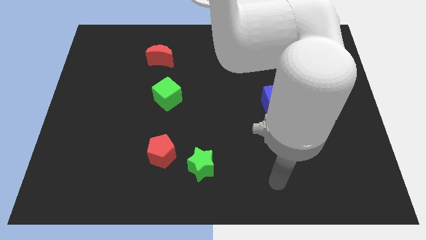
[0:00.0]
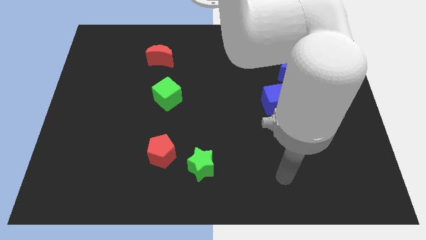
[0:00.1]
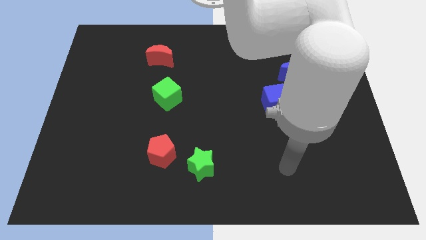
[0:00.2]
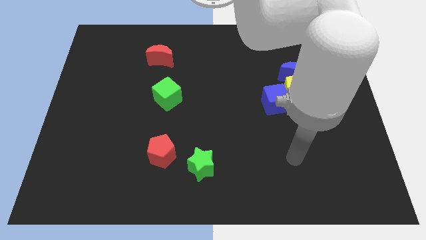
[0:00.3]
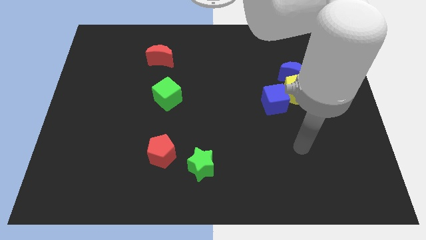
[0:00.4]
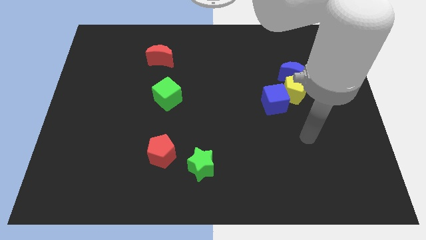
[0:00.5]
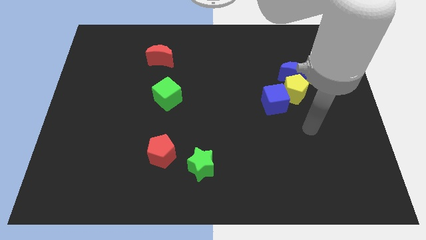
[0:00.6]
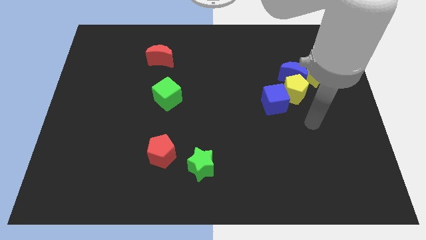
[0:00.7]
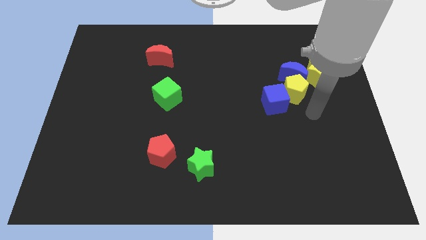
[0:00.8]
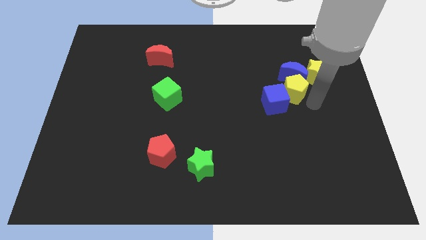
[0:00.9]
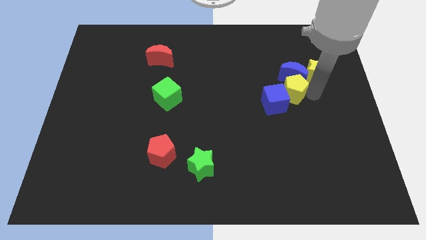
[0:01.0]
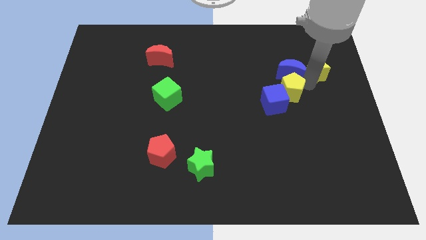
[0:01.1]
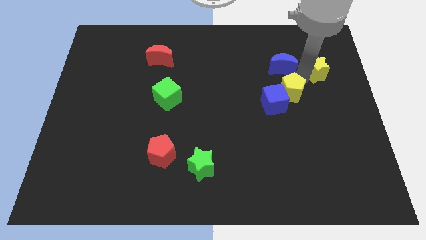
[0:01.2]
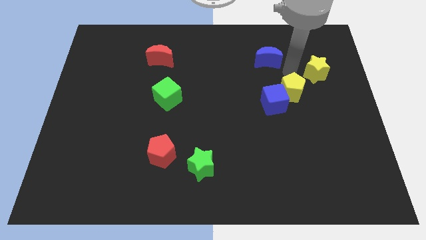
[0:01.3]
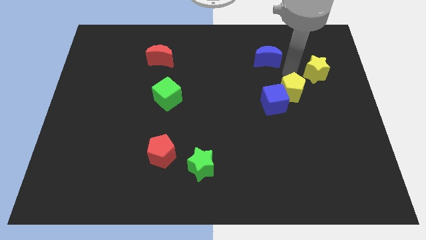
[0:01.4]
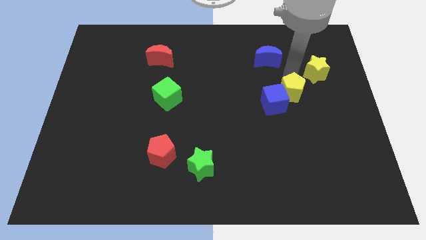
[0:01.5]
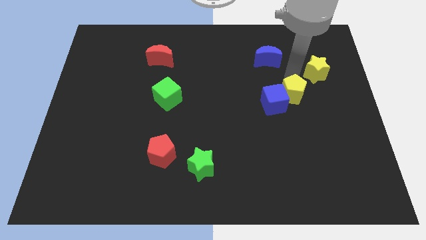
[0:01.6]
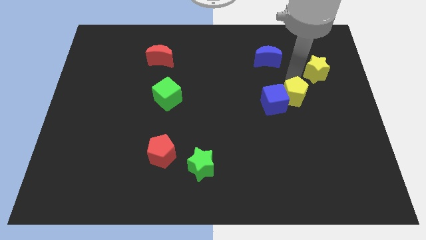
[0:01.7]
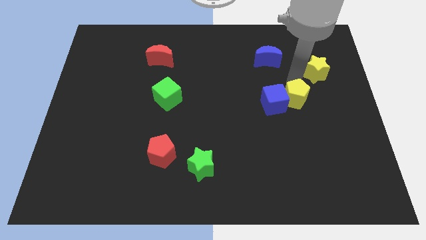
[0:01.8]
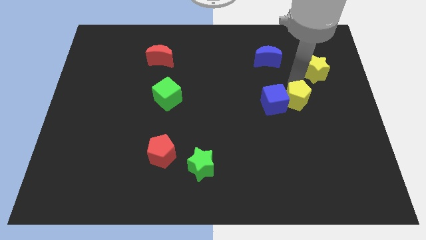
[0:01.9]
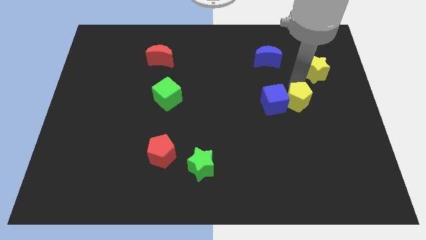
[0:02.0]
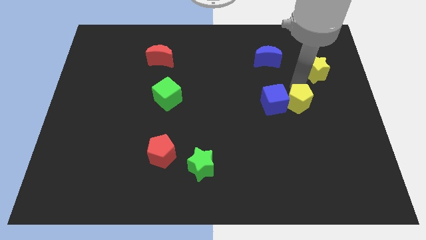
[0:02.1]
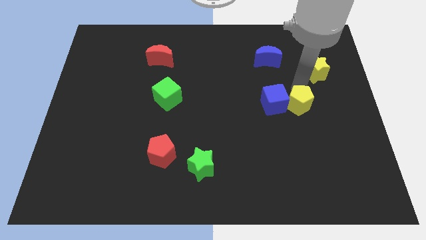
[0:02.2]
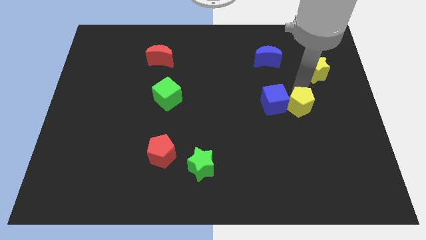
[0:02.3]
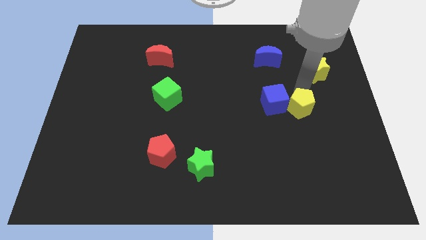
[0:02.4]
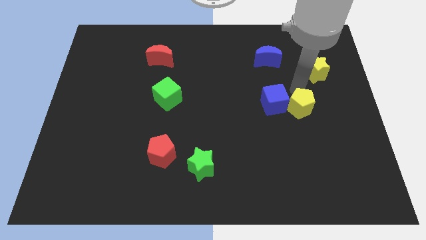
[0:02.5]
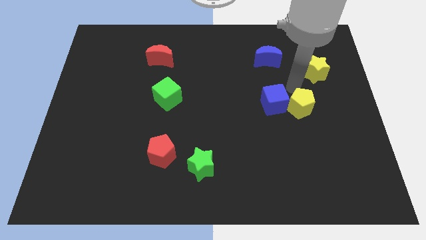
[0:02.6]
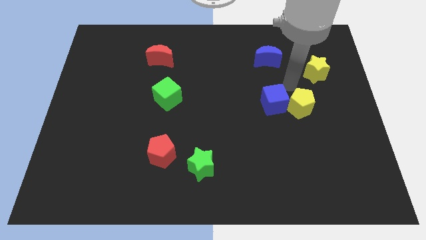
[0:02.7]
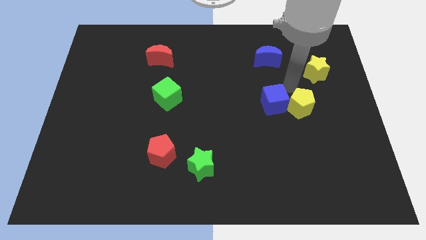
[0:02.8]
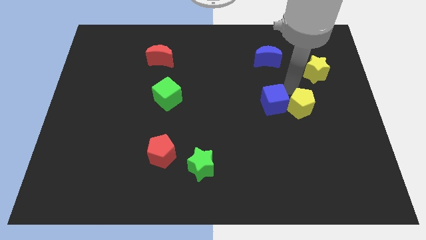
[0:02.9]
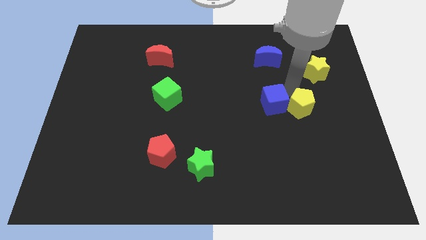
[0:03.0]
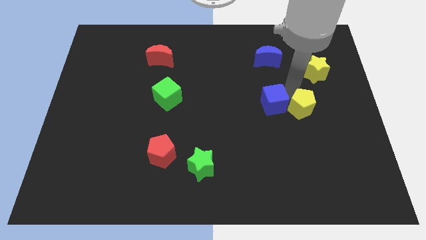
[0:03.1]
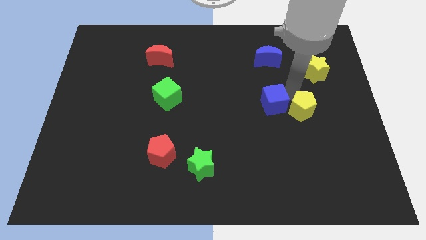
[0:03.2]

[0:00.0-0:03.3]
move the yellow pentagon away from the group

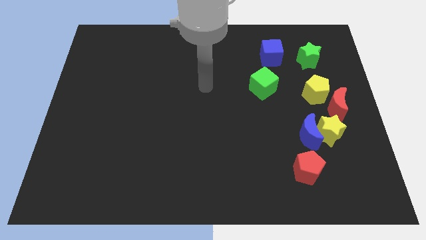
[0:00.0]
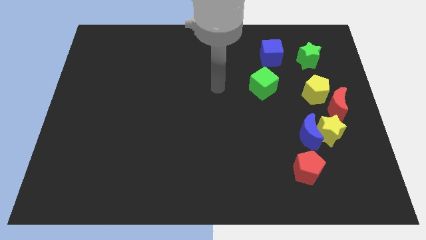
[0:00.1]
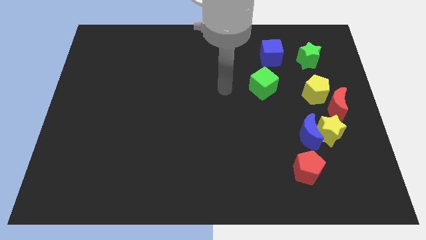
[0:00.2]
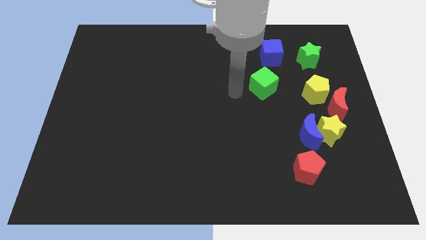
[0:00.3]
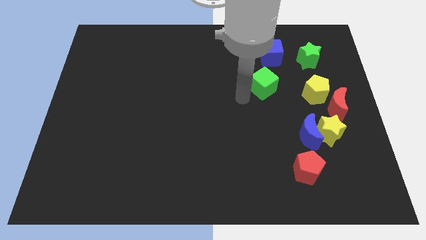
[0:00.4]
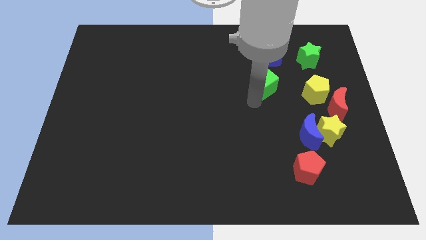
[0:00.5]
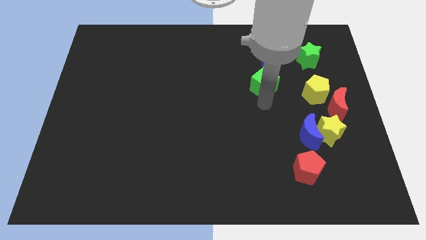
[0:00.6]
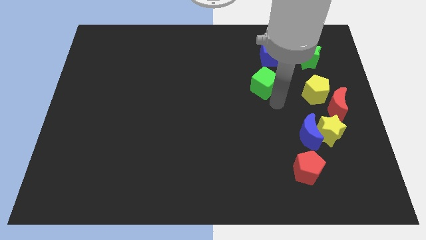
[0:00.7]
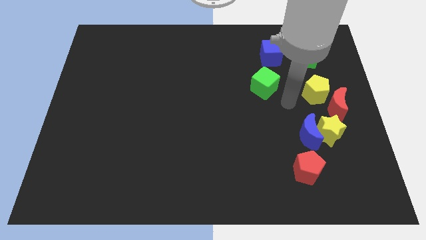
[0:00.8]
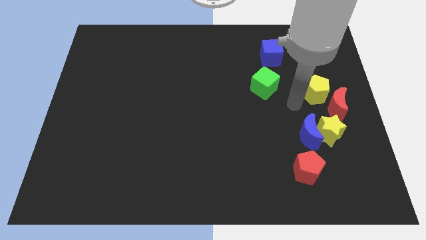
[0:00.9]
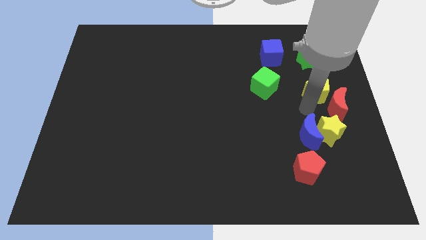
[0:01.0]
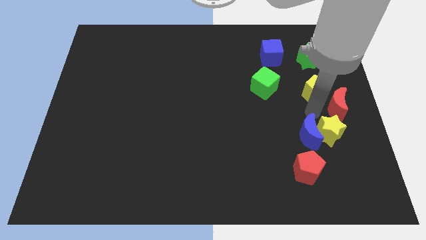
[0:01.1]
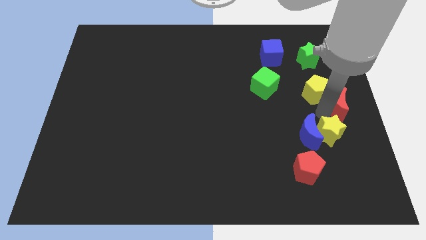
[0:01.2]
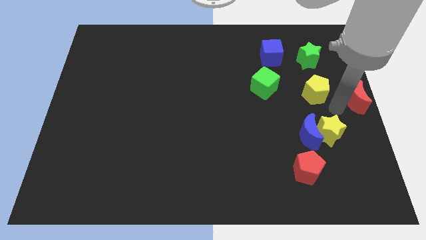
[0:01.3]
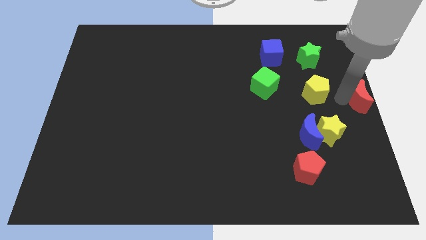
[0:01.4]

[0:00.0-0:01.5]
pull the yellow pentagon apart from the red moon

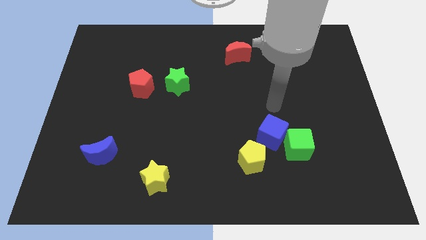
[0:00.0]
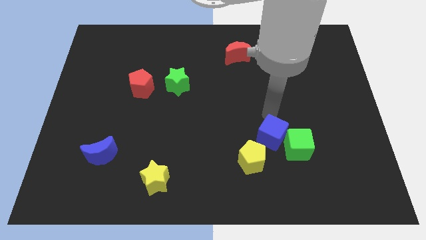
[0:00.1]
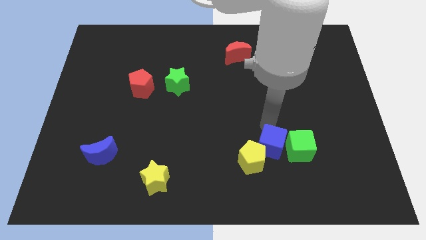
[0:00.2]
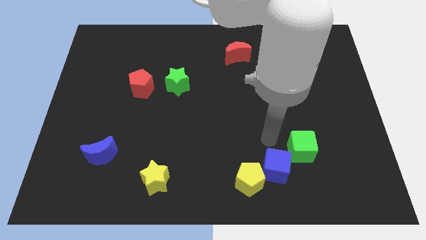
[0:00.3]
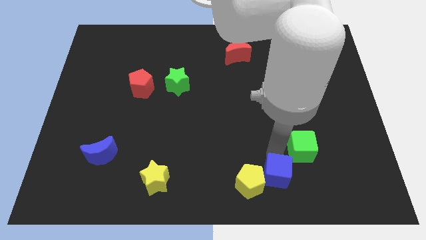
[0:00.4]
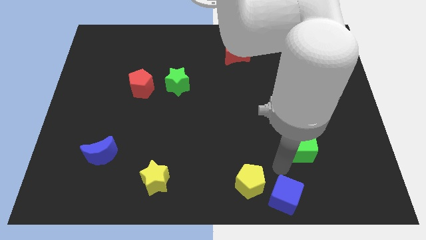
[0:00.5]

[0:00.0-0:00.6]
separate the green cube from the blue cube

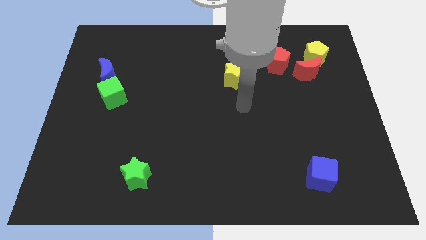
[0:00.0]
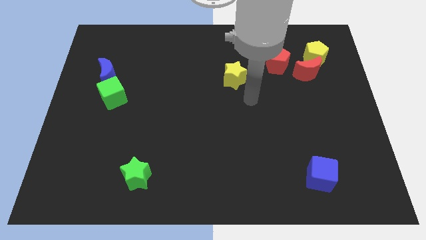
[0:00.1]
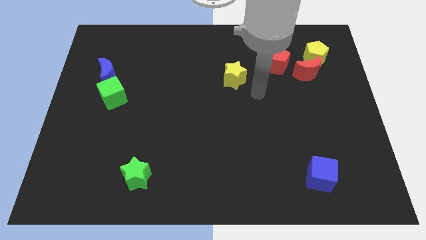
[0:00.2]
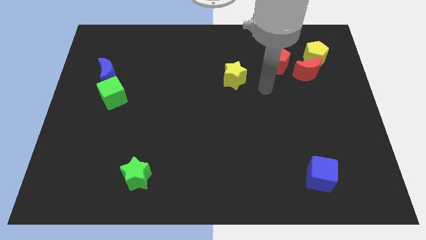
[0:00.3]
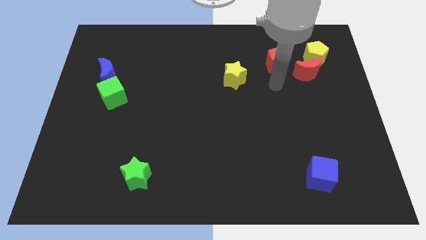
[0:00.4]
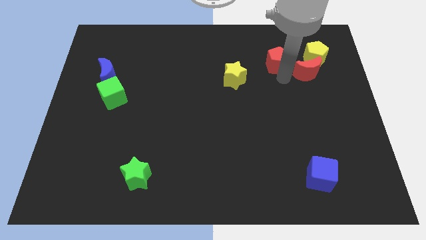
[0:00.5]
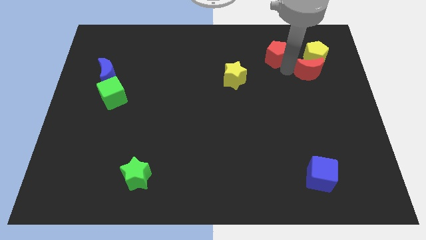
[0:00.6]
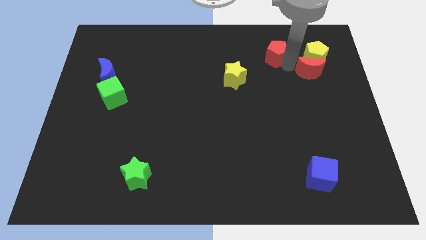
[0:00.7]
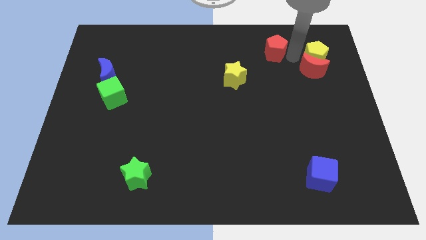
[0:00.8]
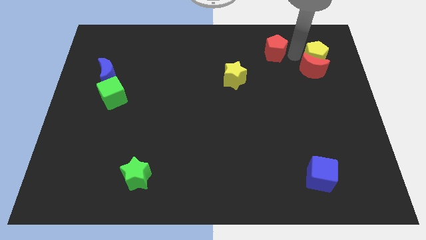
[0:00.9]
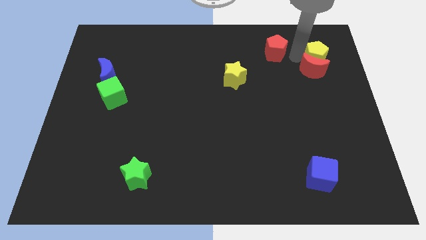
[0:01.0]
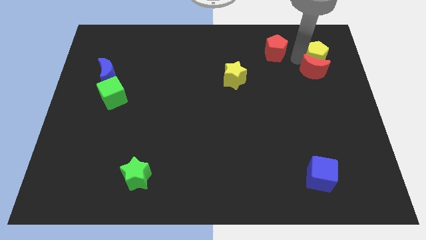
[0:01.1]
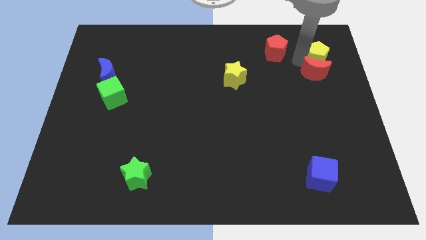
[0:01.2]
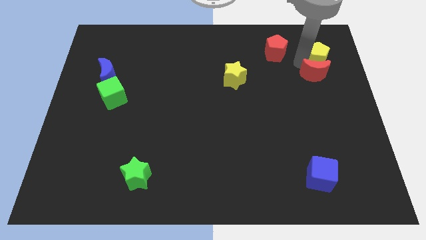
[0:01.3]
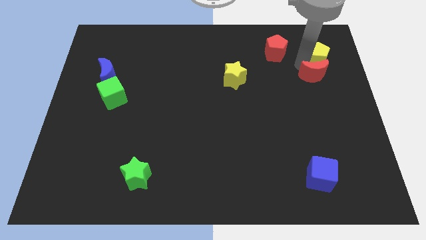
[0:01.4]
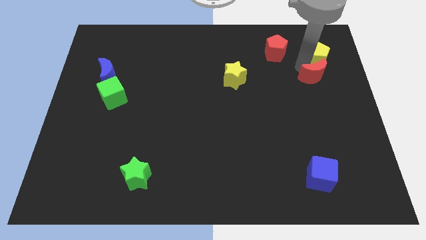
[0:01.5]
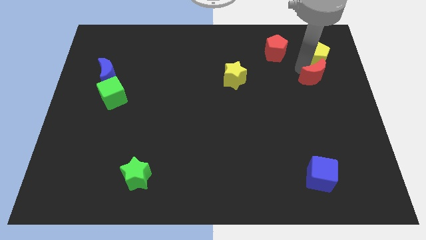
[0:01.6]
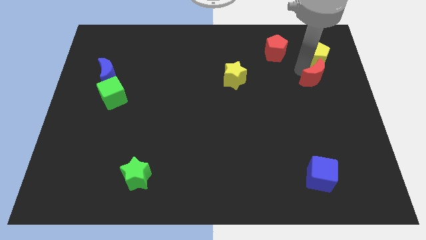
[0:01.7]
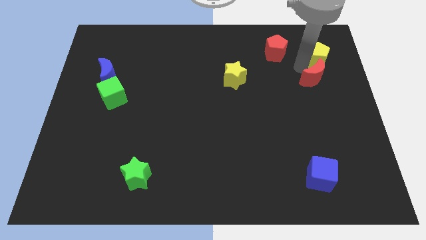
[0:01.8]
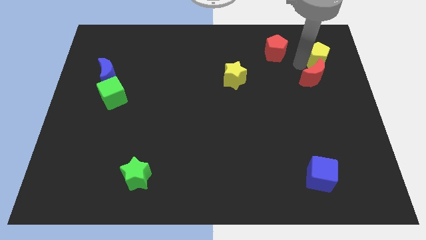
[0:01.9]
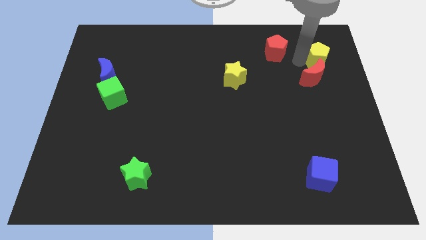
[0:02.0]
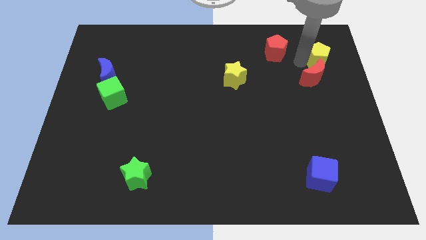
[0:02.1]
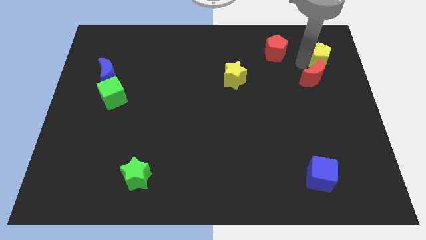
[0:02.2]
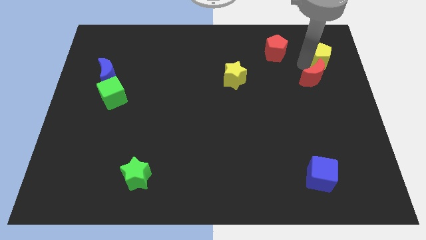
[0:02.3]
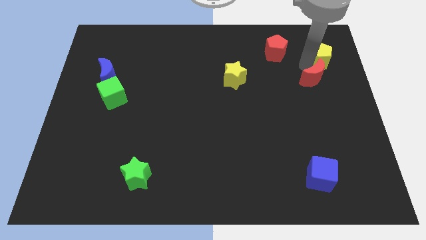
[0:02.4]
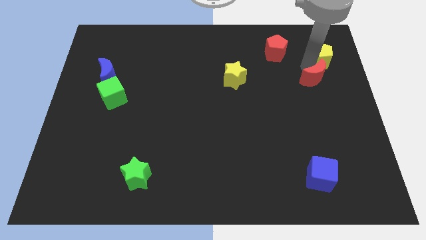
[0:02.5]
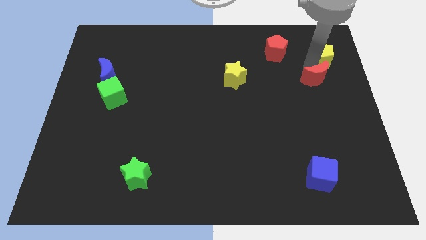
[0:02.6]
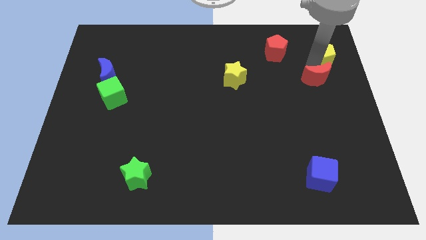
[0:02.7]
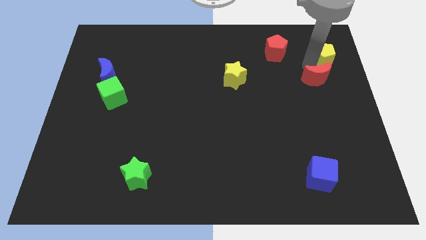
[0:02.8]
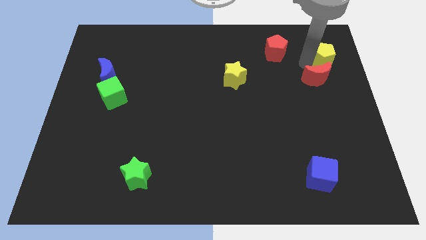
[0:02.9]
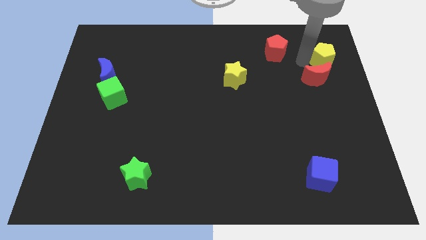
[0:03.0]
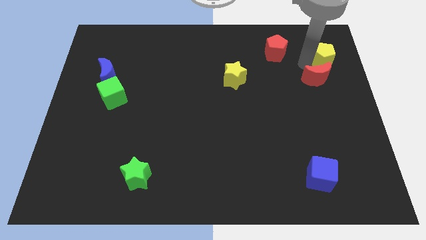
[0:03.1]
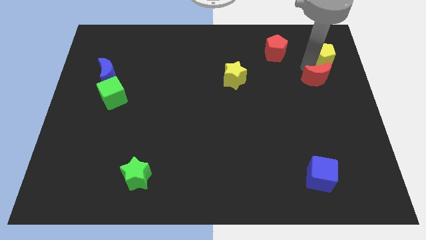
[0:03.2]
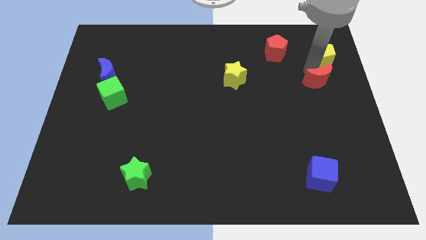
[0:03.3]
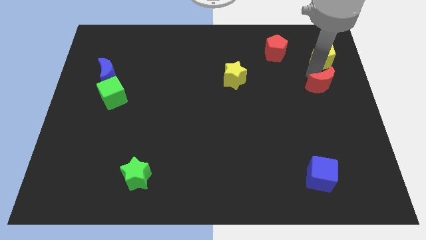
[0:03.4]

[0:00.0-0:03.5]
move the red moon away from the yellow pentagon and red pentagon

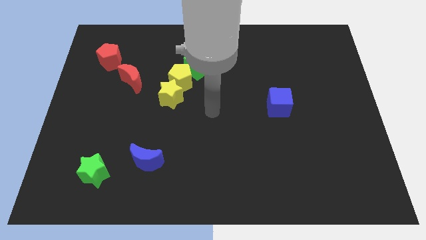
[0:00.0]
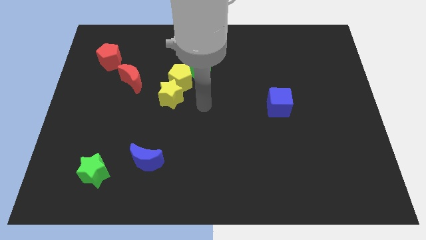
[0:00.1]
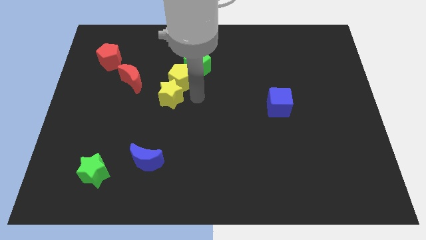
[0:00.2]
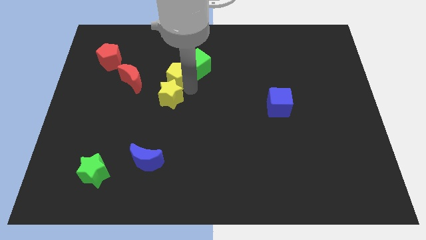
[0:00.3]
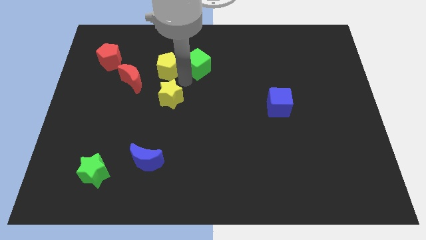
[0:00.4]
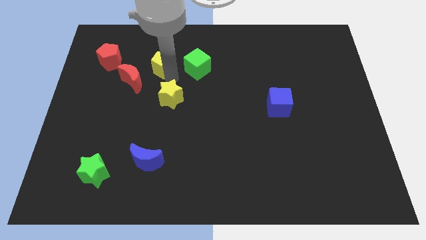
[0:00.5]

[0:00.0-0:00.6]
separate the yellow star from the yellow pentagon
